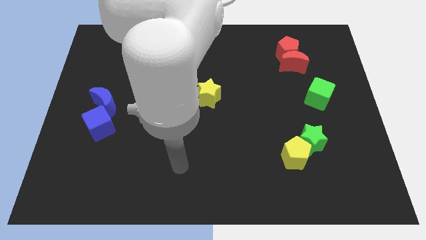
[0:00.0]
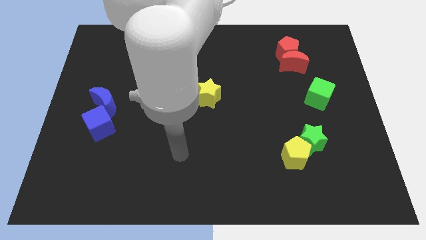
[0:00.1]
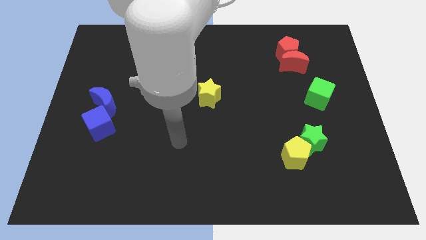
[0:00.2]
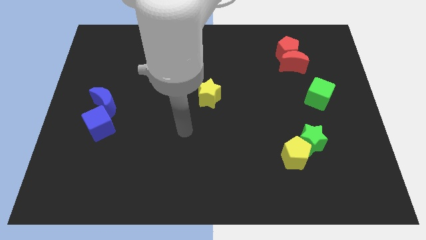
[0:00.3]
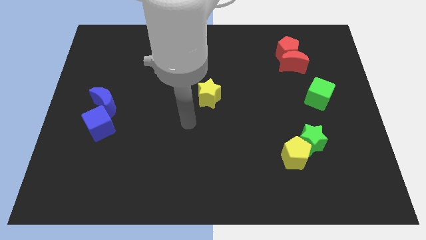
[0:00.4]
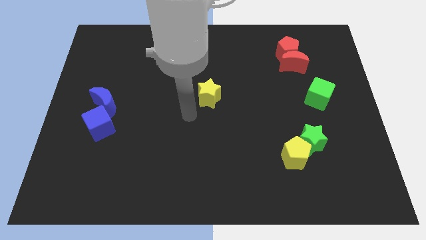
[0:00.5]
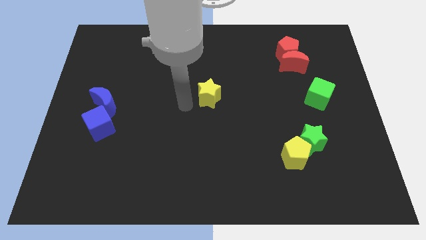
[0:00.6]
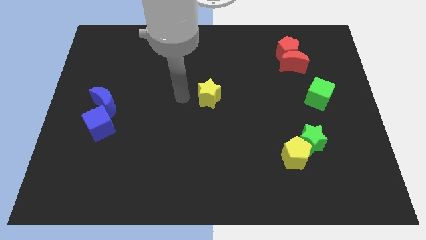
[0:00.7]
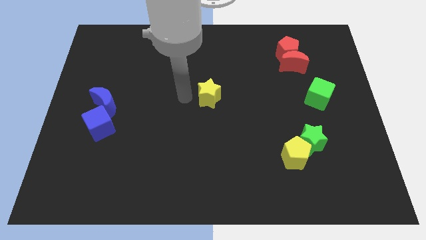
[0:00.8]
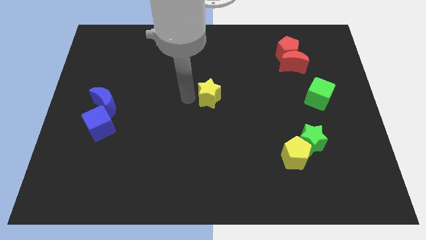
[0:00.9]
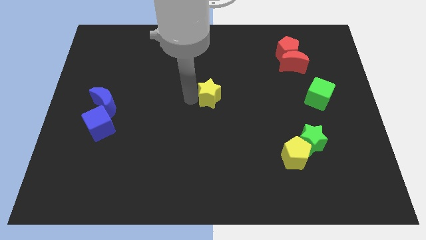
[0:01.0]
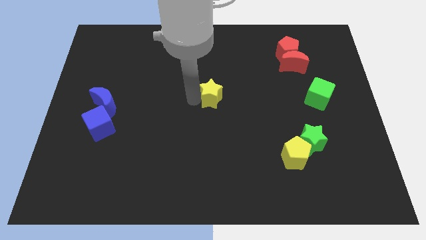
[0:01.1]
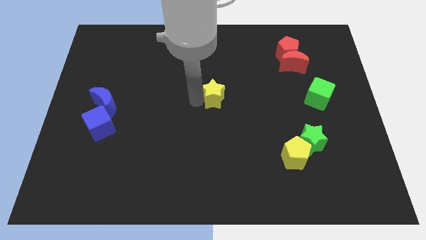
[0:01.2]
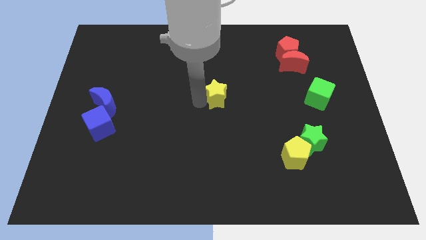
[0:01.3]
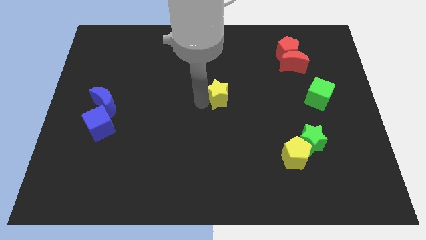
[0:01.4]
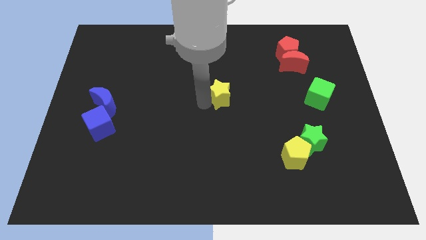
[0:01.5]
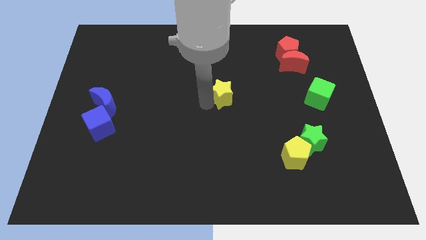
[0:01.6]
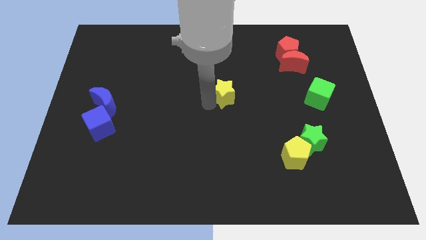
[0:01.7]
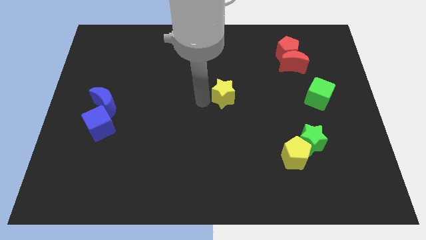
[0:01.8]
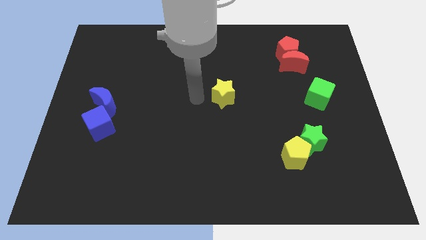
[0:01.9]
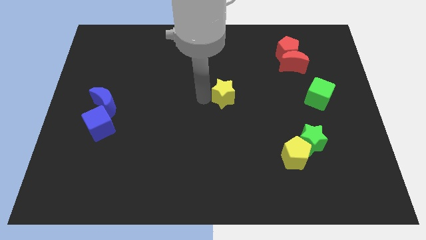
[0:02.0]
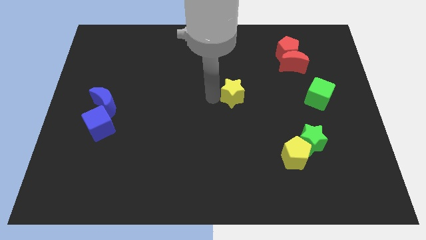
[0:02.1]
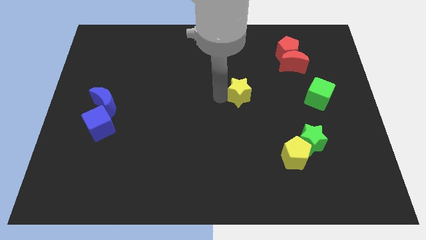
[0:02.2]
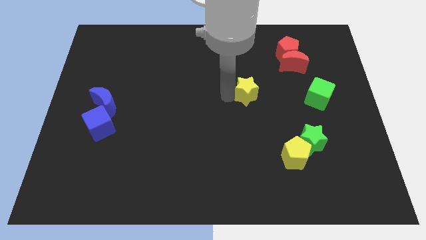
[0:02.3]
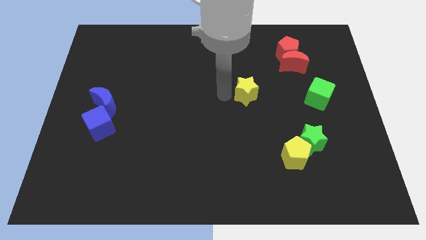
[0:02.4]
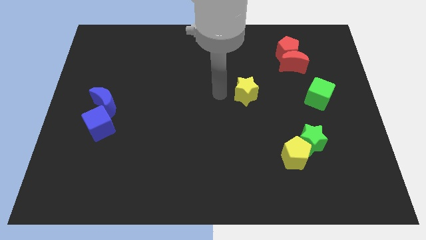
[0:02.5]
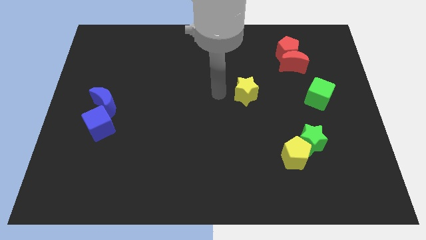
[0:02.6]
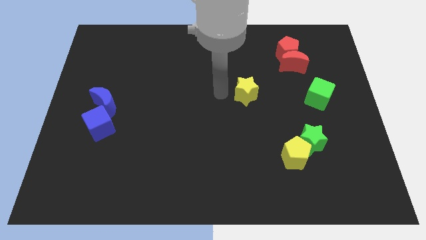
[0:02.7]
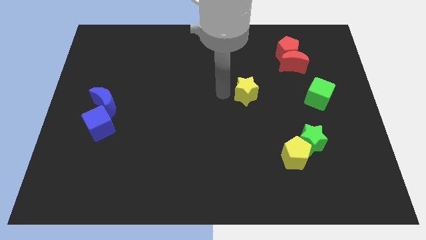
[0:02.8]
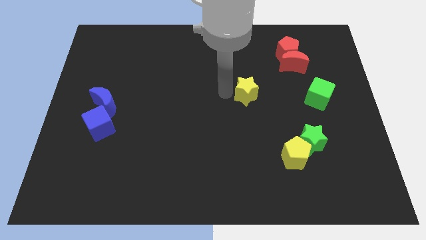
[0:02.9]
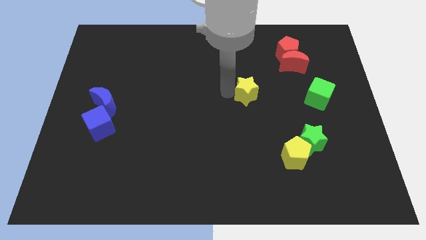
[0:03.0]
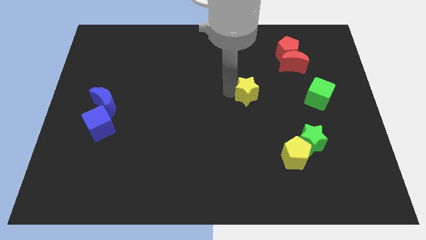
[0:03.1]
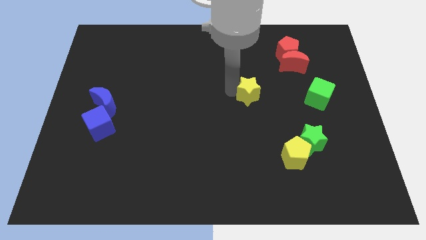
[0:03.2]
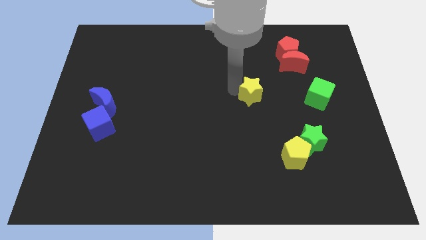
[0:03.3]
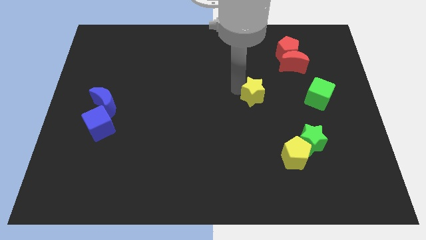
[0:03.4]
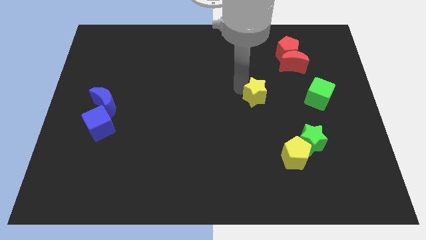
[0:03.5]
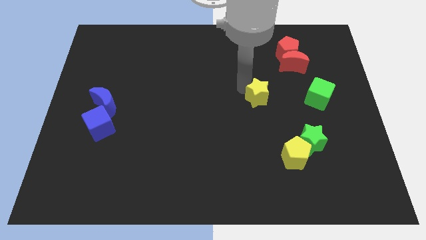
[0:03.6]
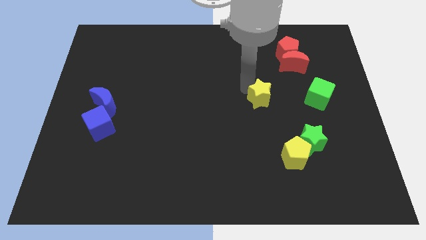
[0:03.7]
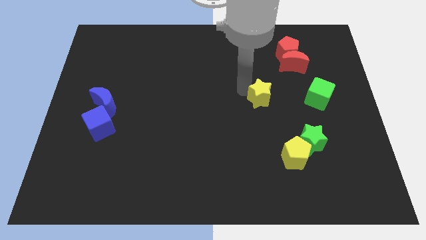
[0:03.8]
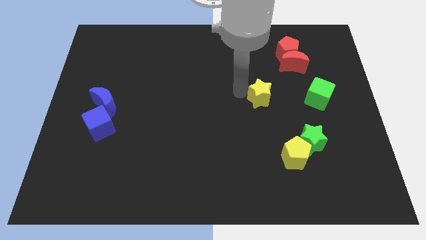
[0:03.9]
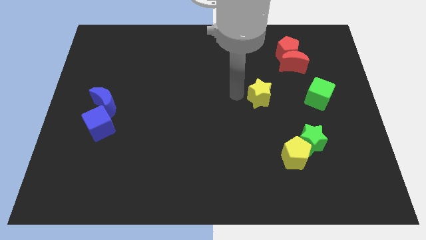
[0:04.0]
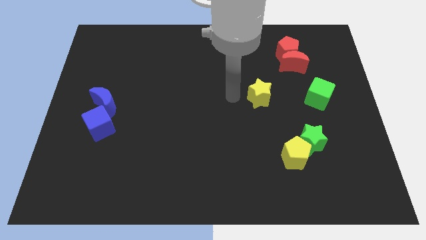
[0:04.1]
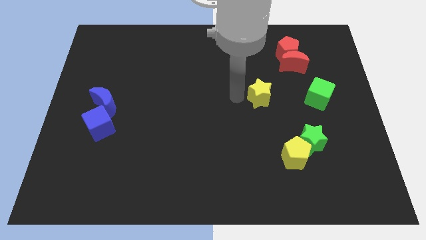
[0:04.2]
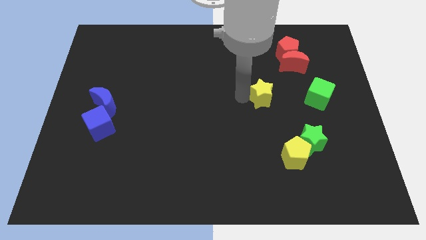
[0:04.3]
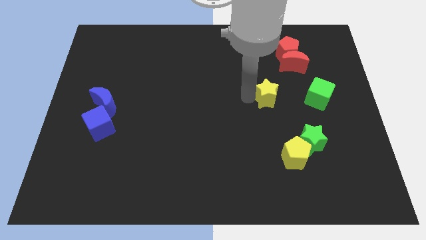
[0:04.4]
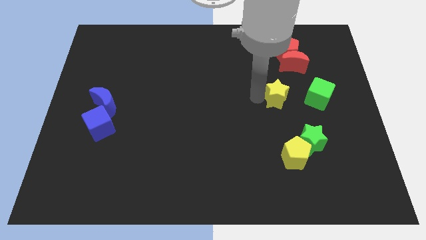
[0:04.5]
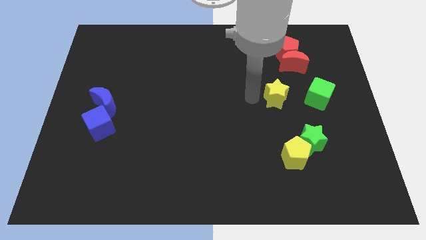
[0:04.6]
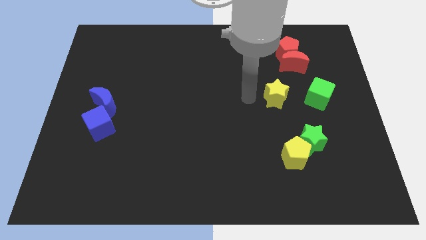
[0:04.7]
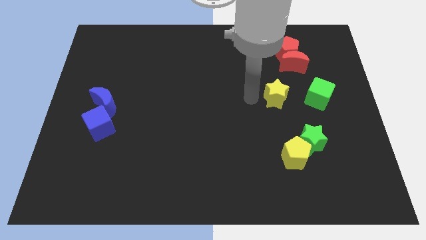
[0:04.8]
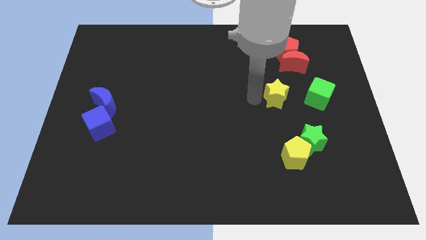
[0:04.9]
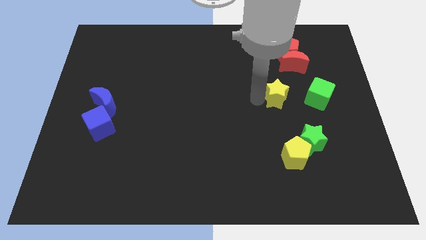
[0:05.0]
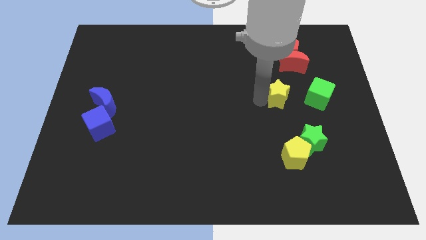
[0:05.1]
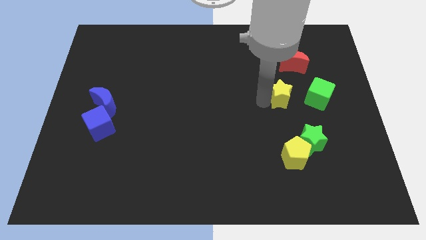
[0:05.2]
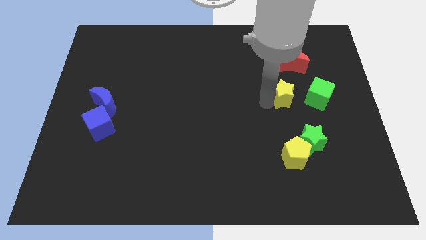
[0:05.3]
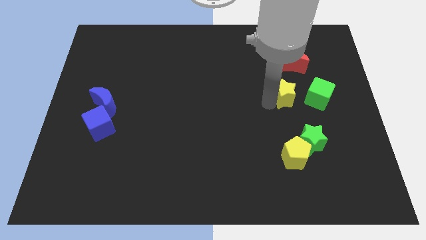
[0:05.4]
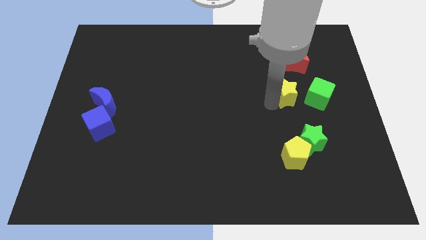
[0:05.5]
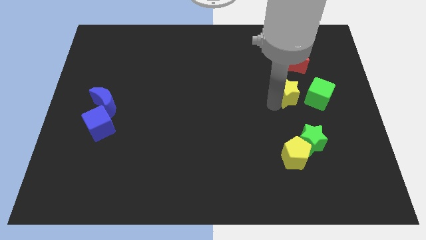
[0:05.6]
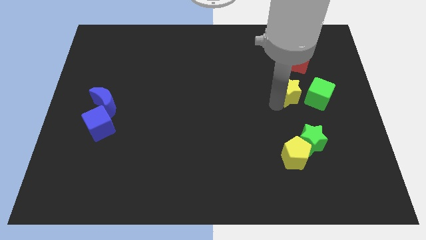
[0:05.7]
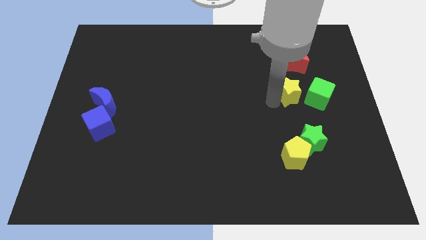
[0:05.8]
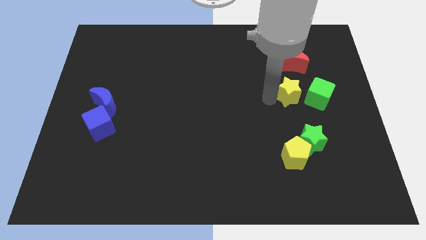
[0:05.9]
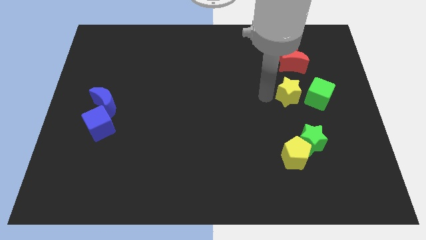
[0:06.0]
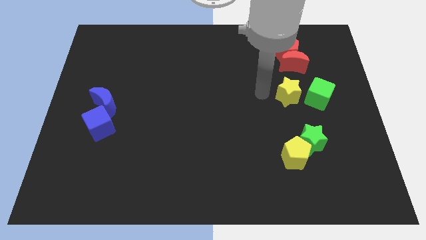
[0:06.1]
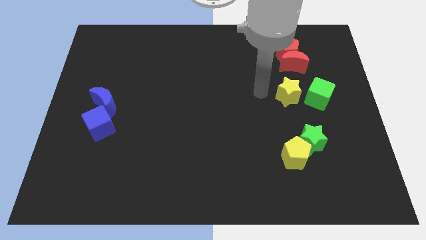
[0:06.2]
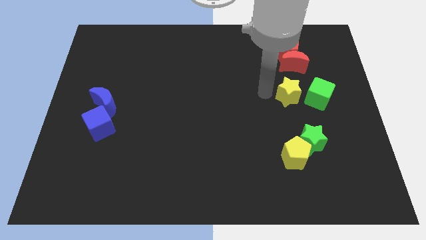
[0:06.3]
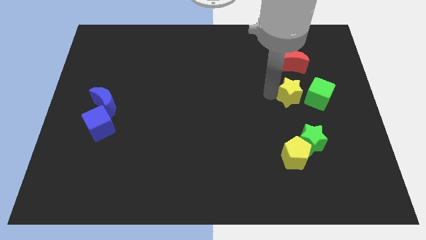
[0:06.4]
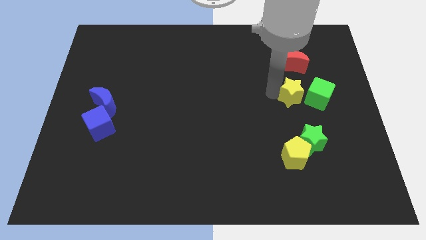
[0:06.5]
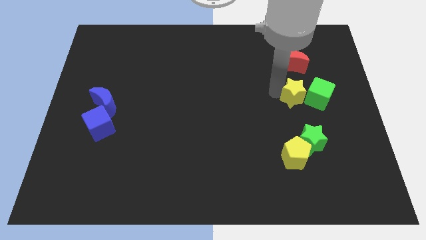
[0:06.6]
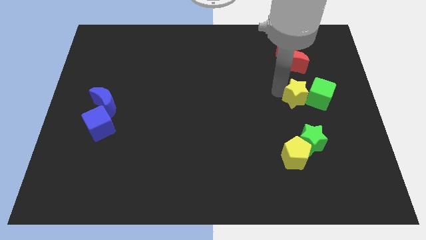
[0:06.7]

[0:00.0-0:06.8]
push the yellow star close to the green cube

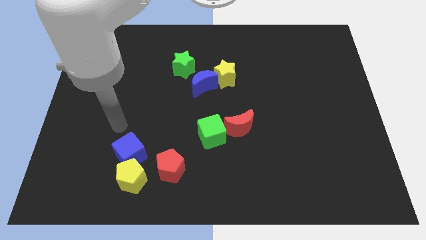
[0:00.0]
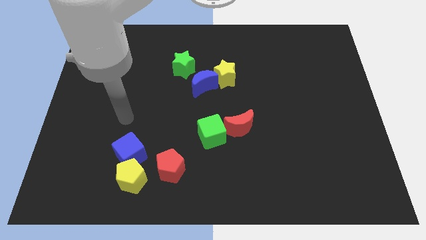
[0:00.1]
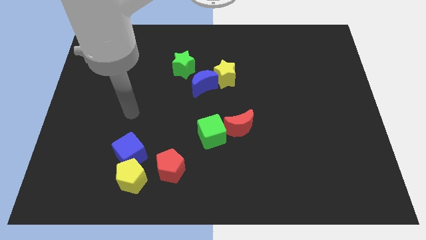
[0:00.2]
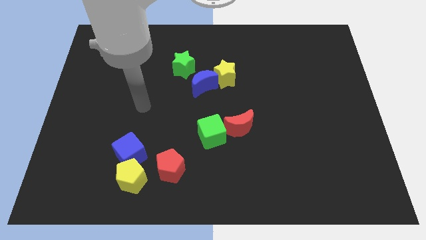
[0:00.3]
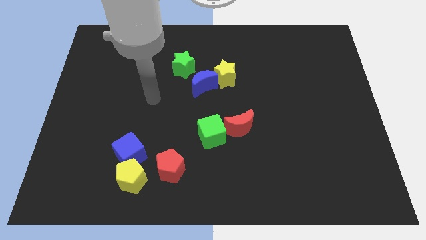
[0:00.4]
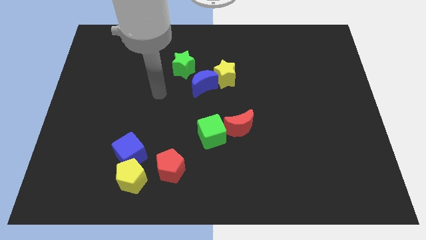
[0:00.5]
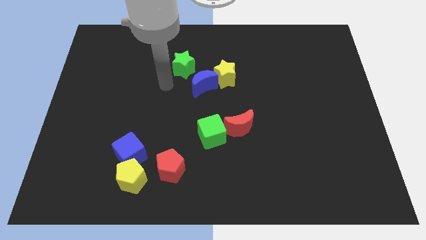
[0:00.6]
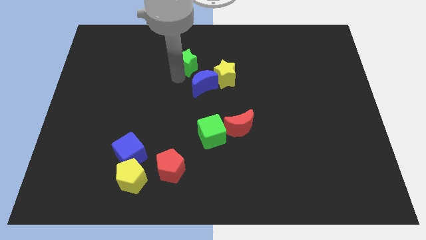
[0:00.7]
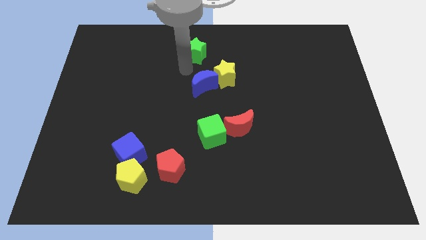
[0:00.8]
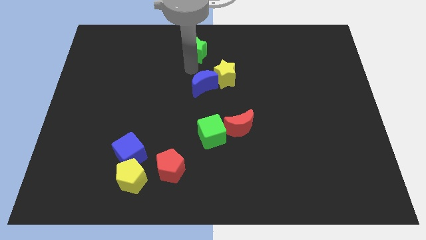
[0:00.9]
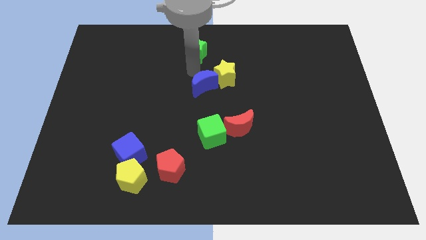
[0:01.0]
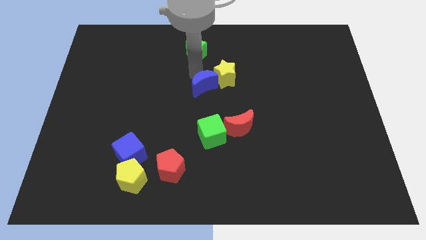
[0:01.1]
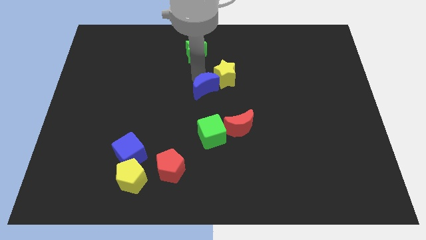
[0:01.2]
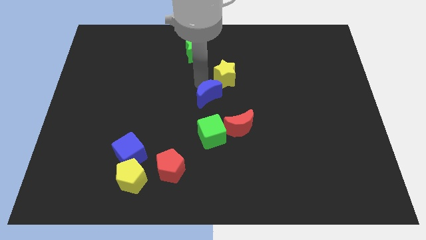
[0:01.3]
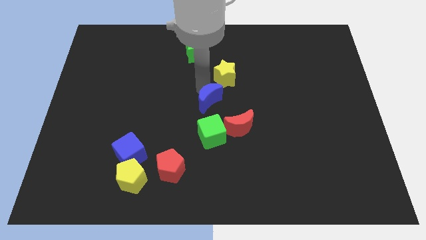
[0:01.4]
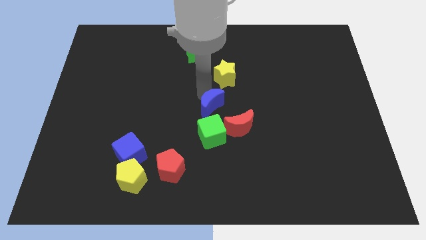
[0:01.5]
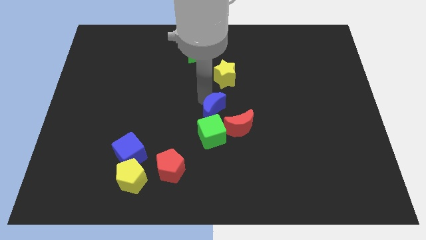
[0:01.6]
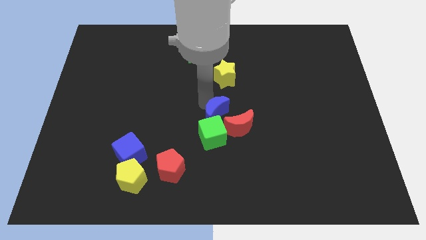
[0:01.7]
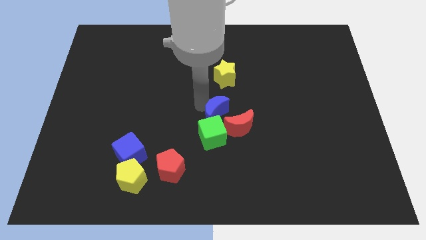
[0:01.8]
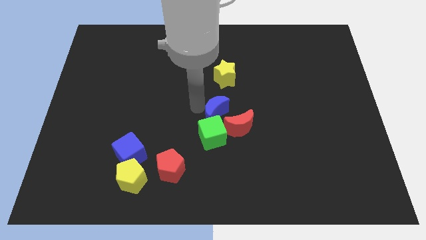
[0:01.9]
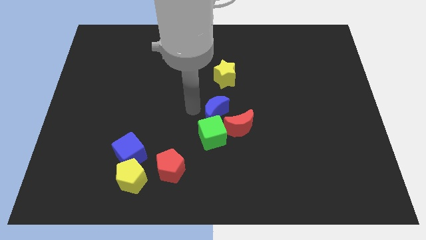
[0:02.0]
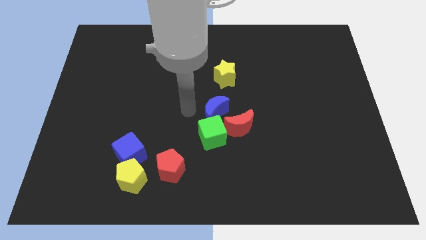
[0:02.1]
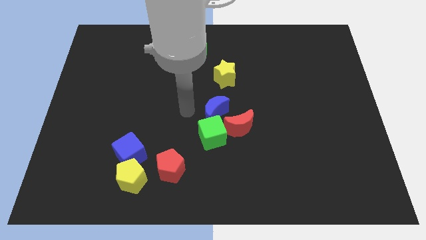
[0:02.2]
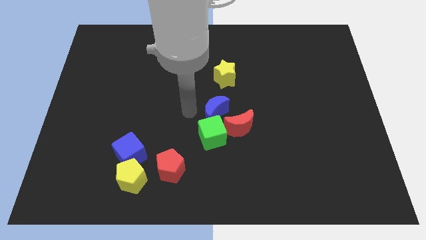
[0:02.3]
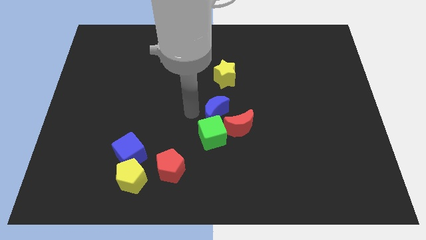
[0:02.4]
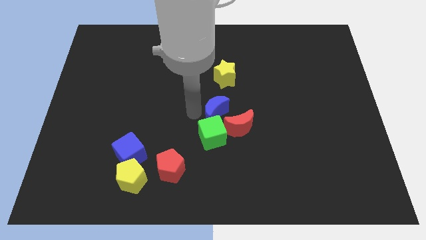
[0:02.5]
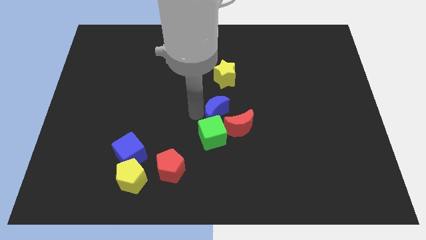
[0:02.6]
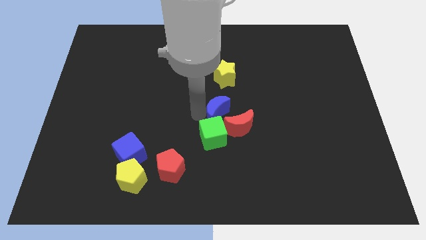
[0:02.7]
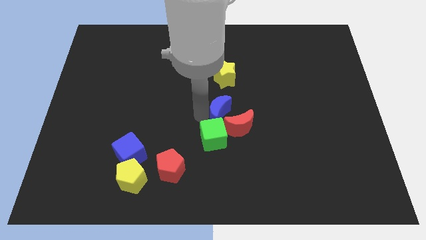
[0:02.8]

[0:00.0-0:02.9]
put the blue moon towards the red moon
